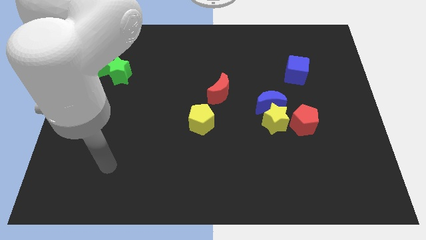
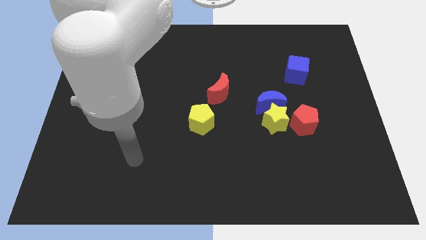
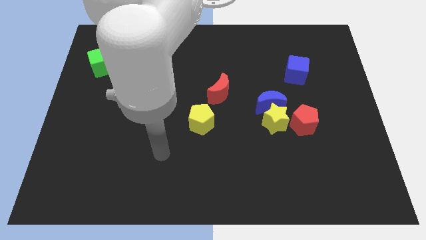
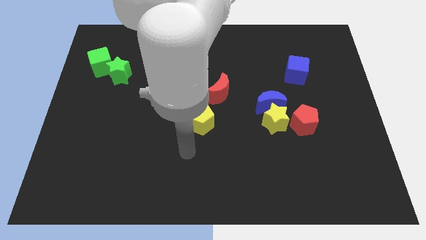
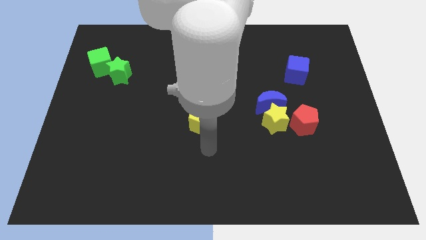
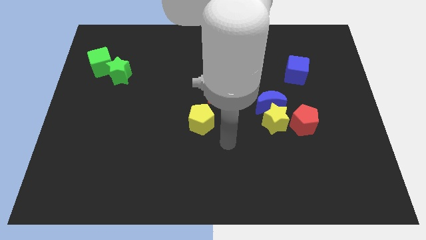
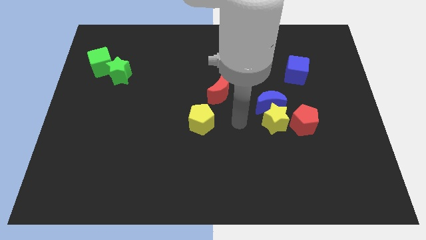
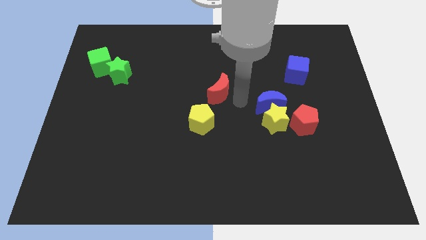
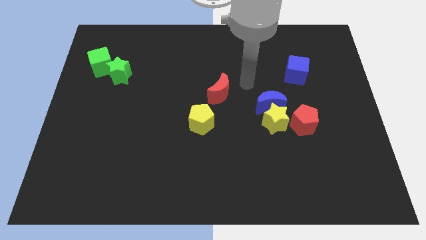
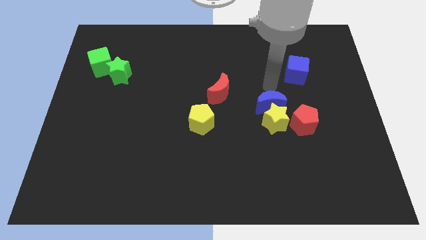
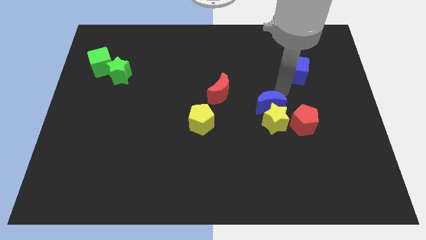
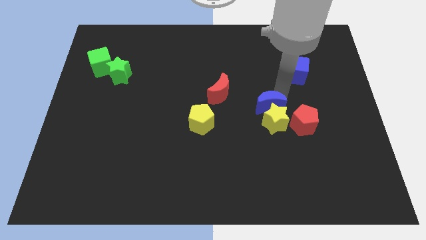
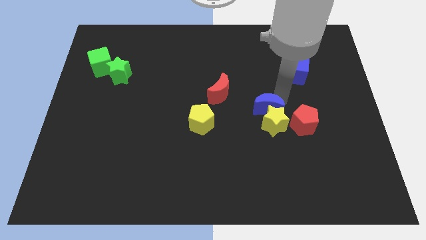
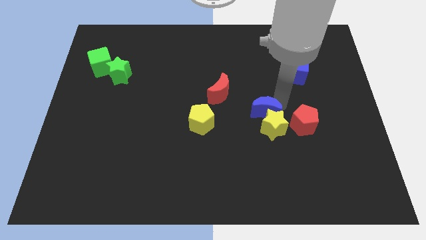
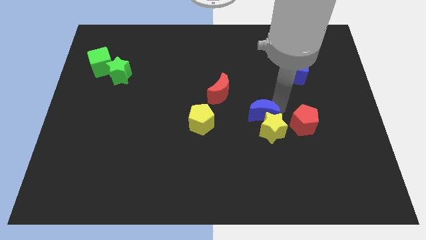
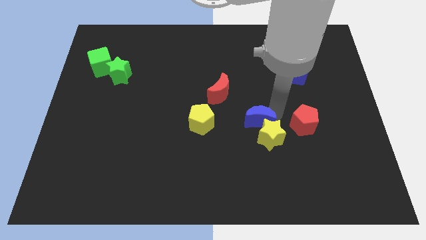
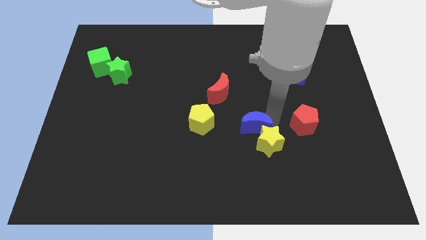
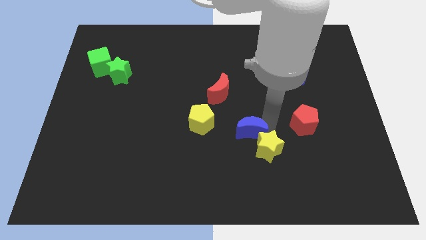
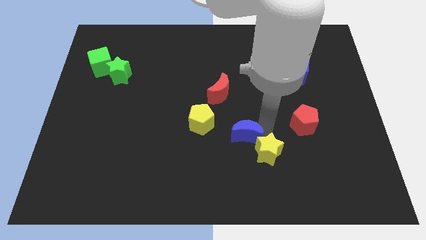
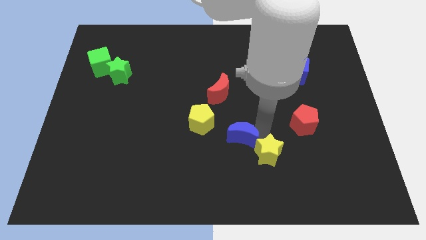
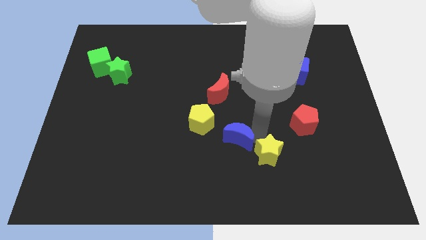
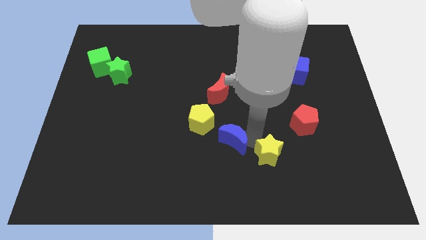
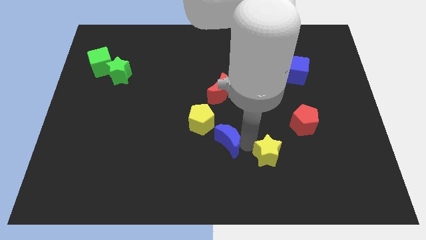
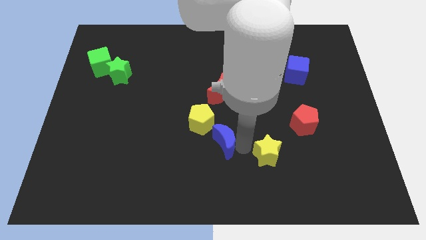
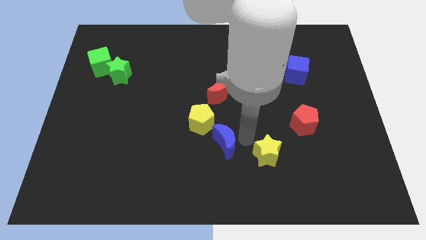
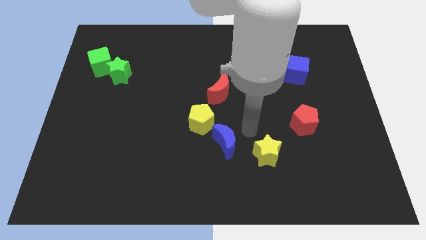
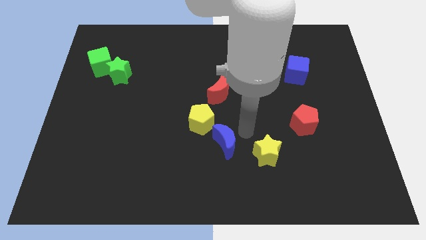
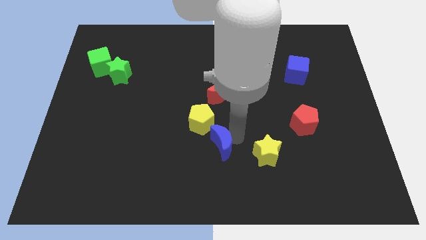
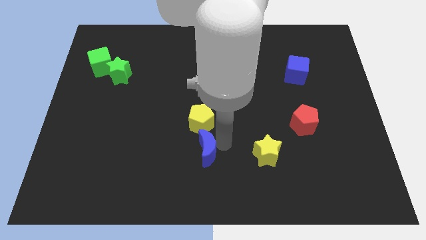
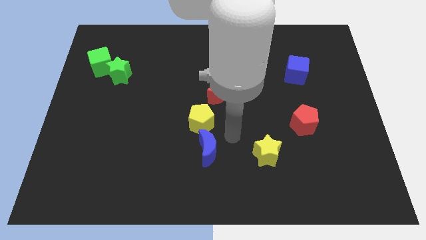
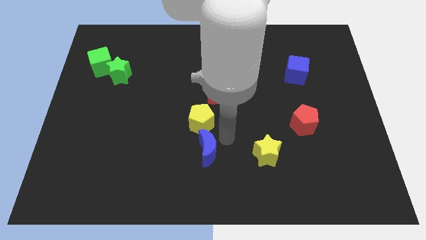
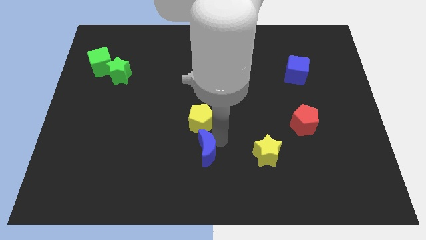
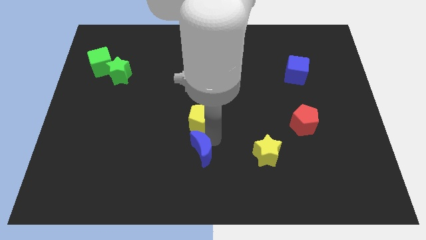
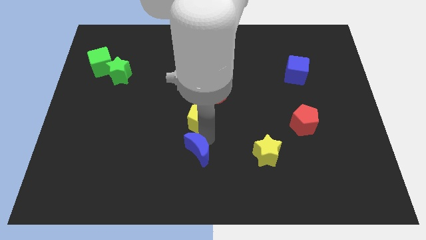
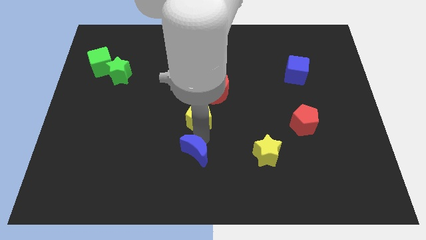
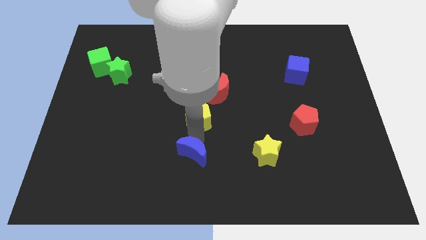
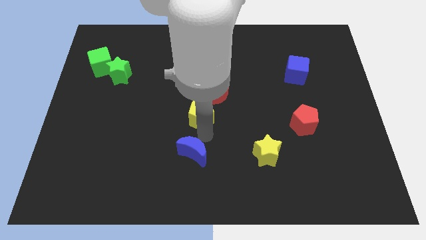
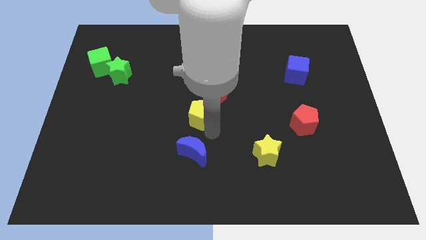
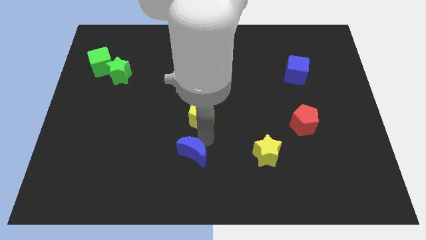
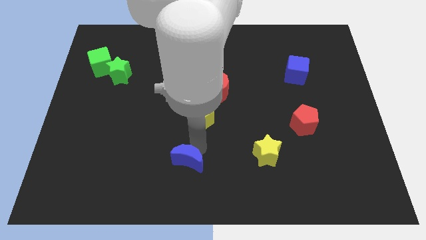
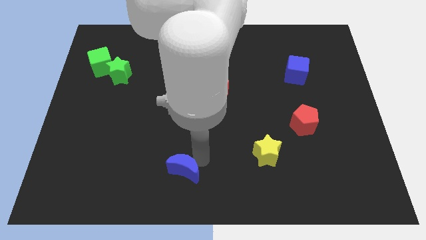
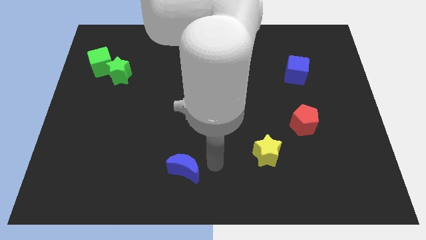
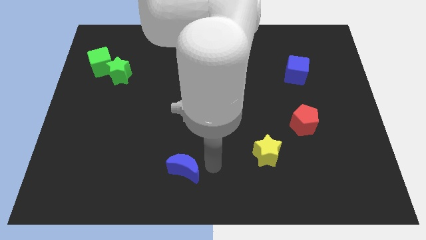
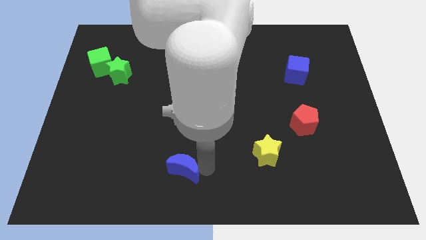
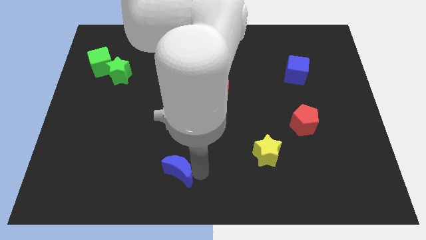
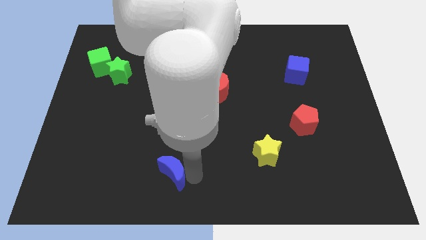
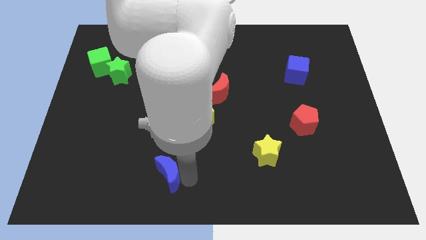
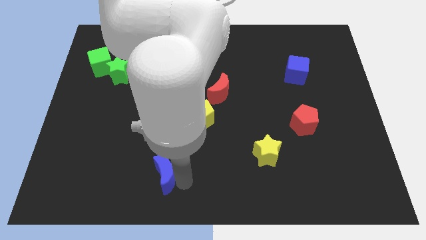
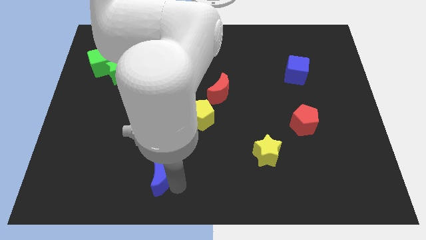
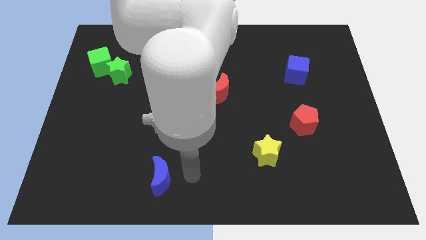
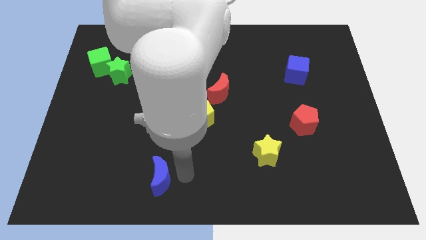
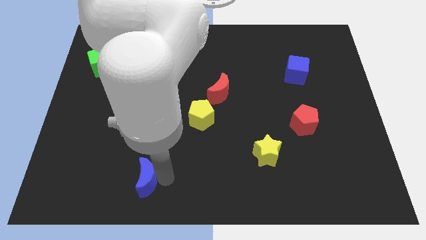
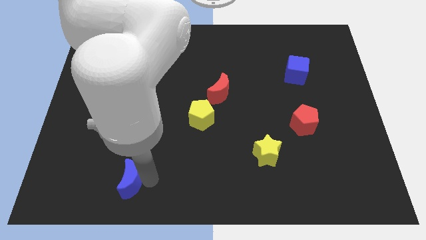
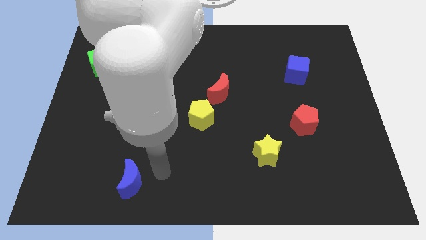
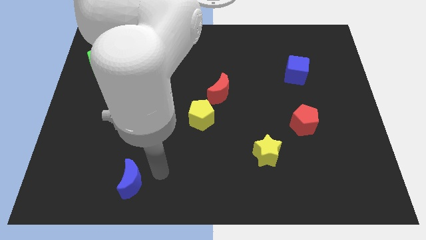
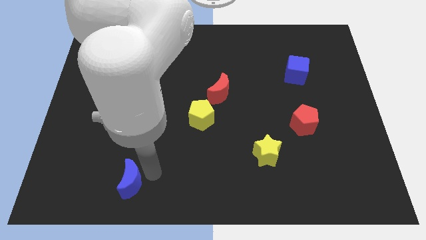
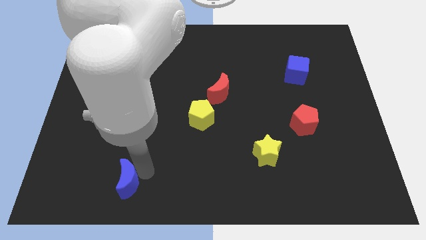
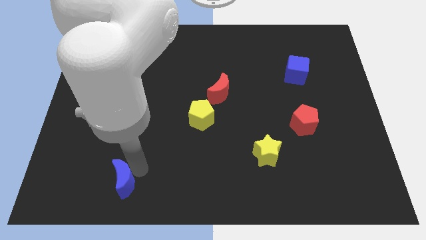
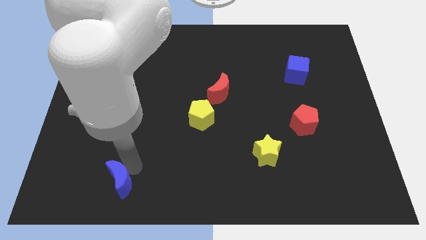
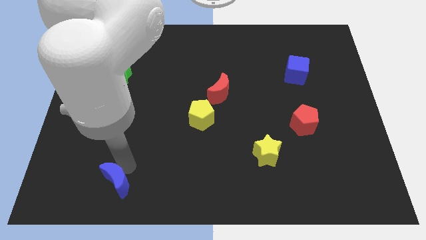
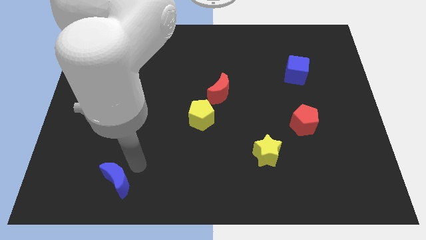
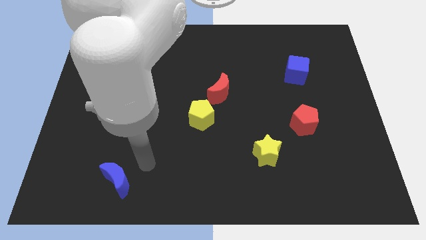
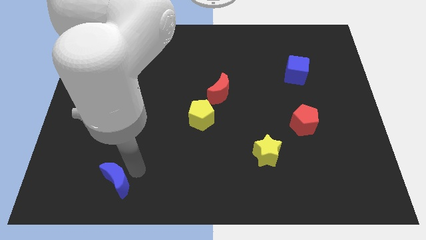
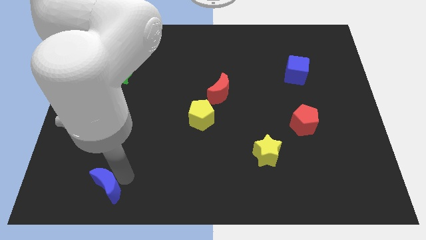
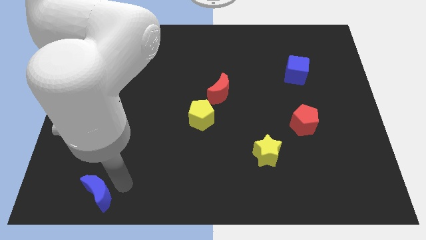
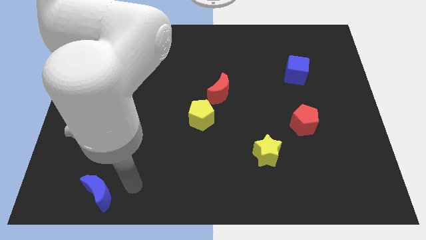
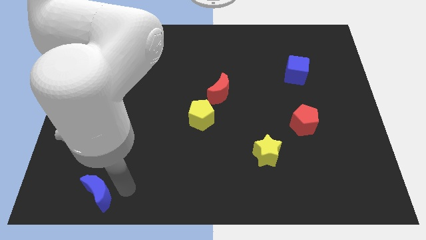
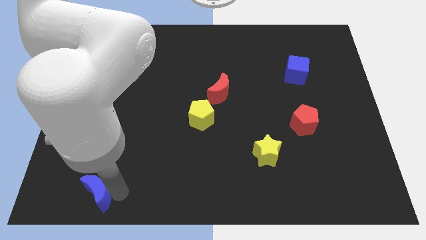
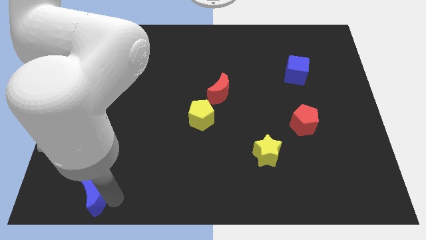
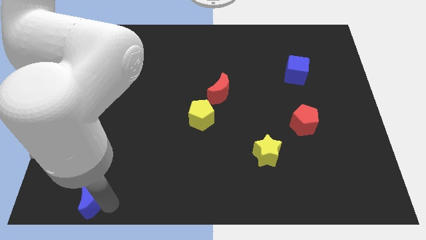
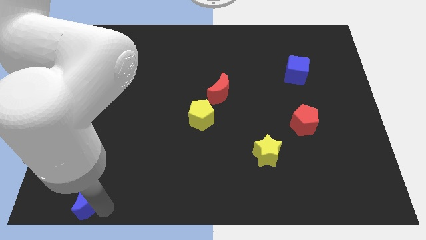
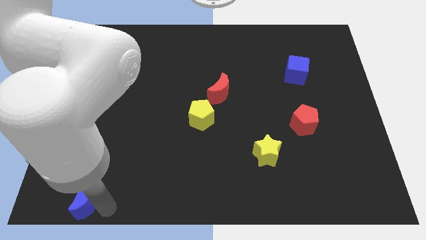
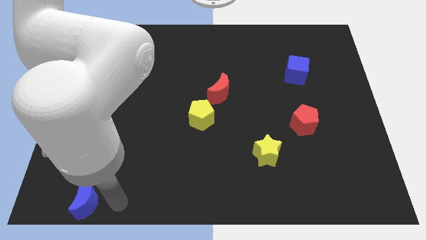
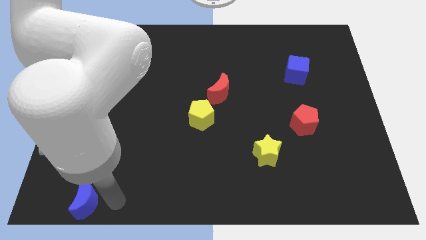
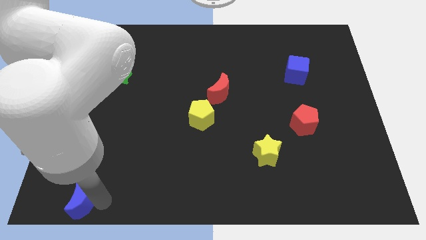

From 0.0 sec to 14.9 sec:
push the blue moon to the bottom left of the board
